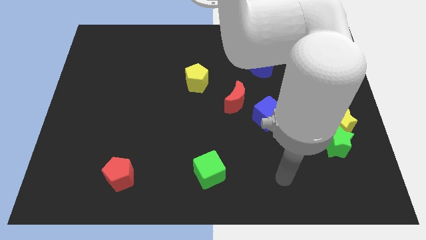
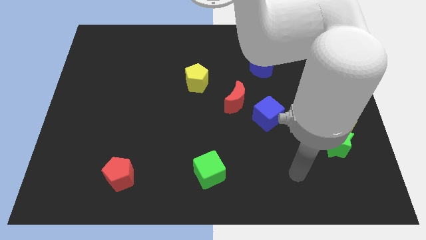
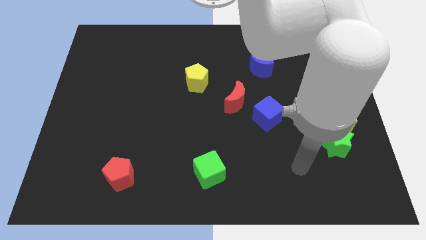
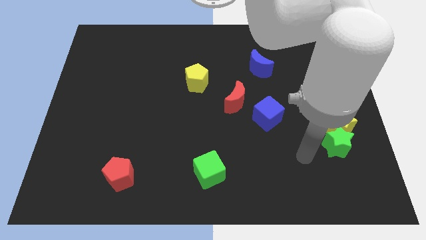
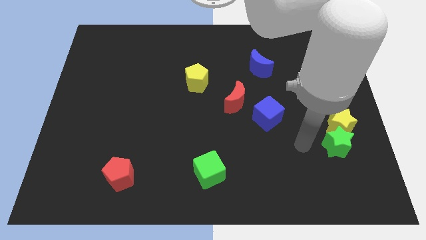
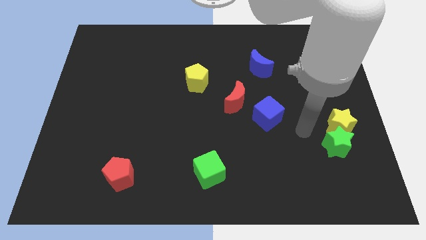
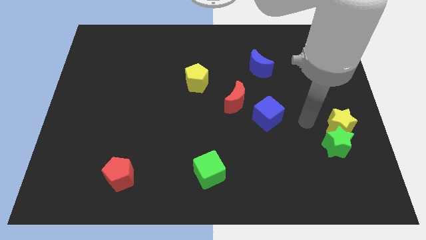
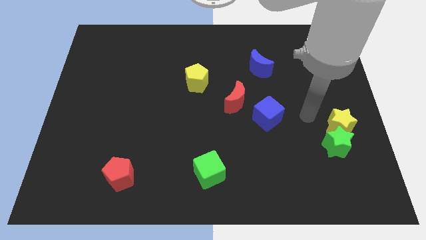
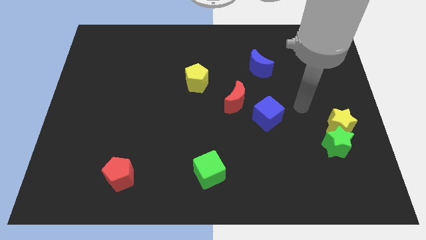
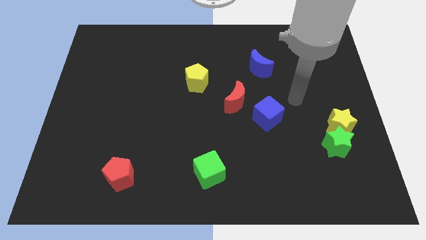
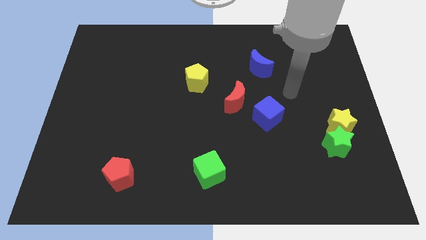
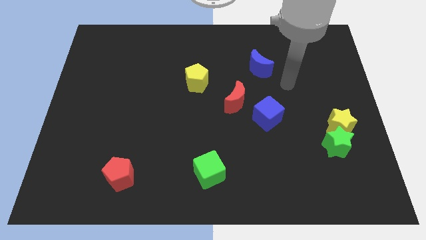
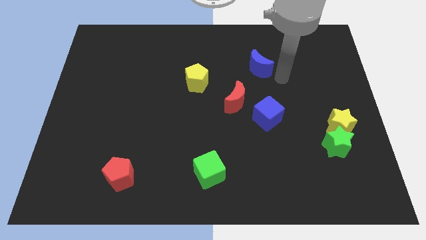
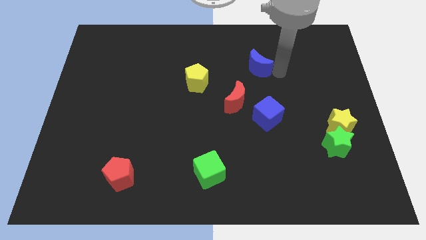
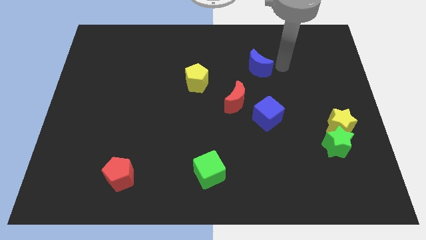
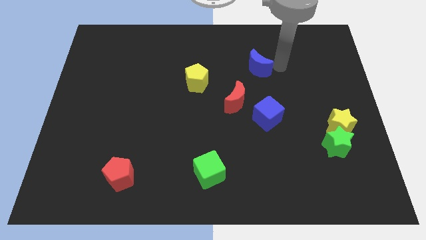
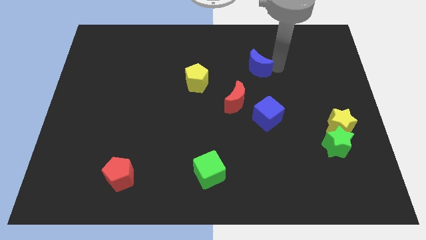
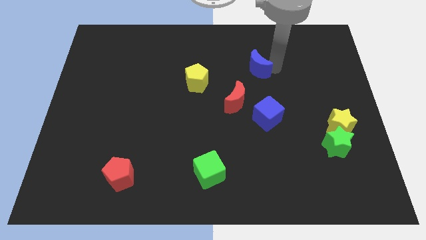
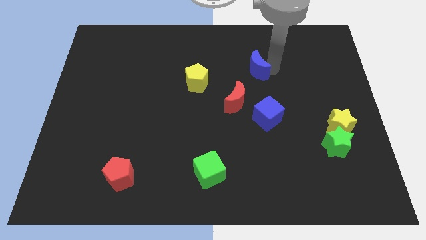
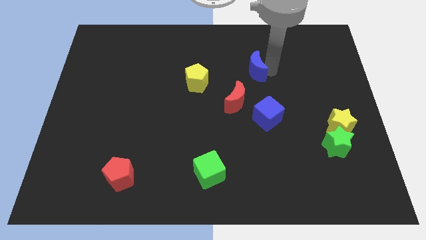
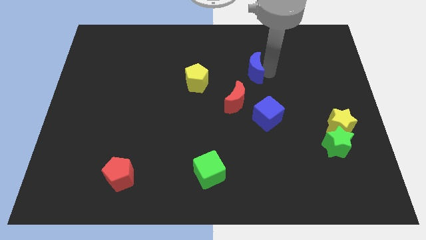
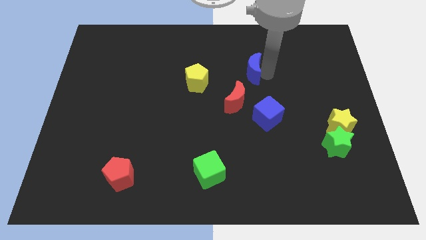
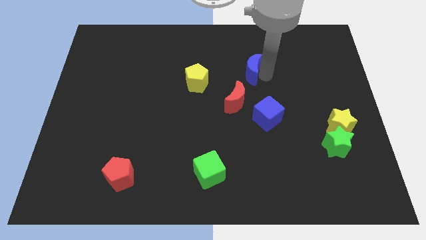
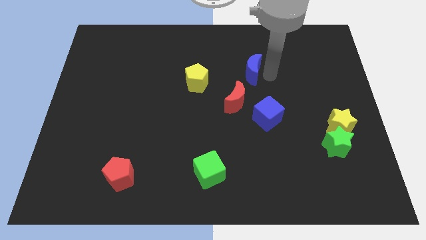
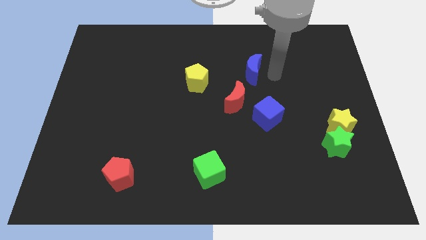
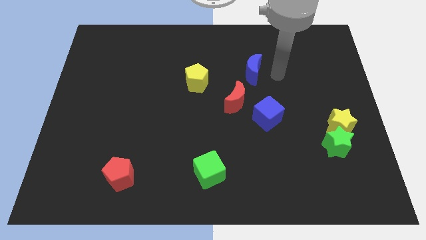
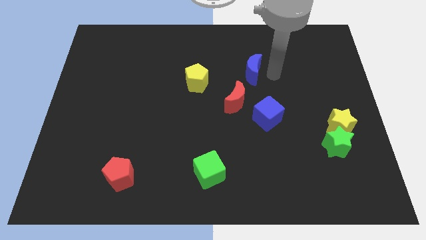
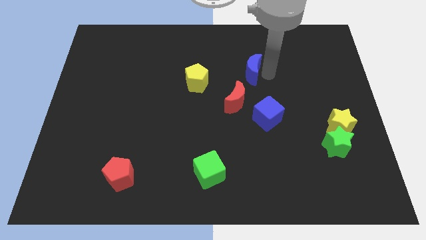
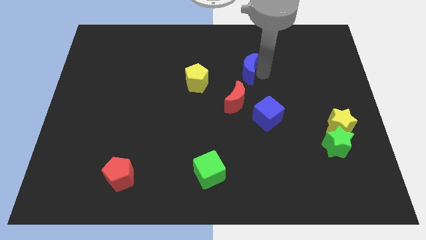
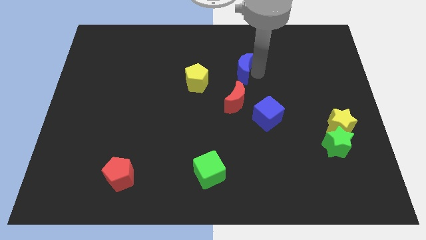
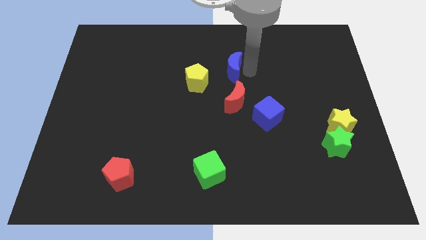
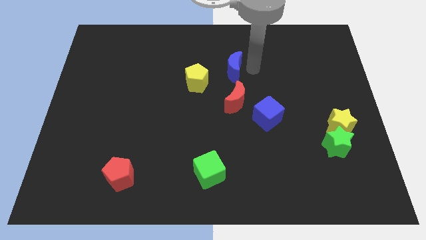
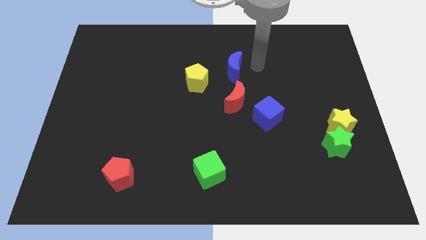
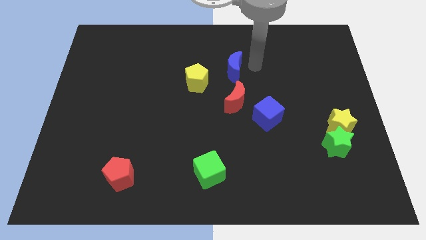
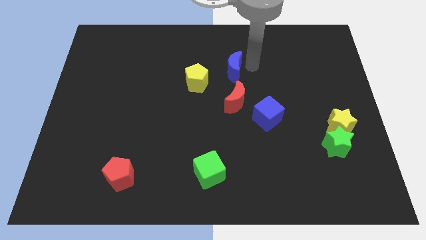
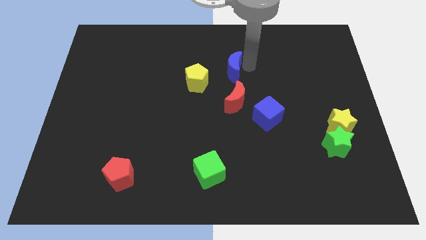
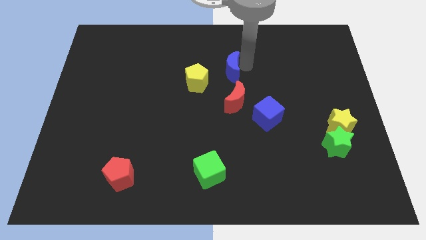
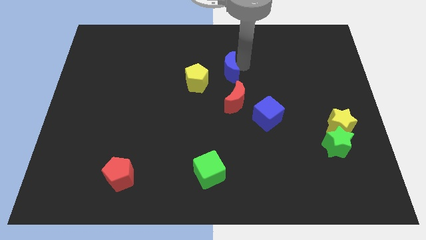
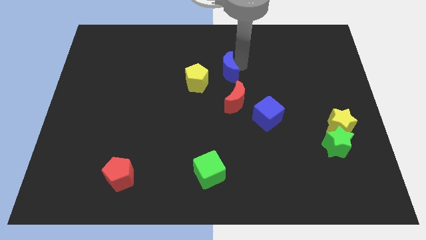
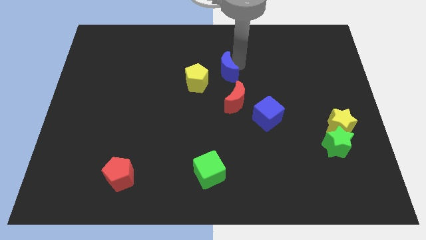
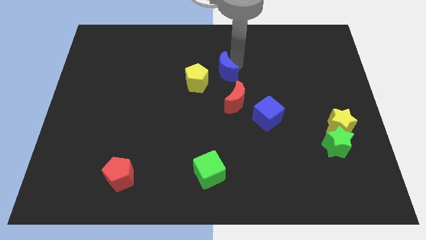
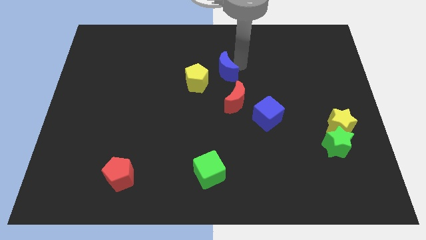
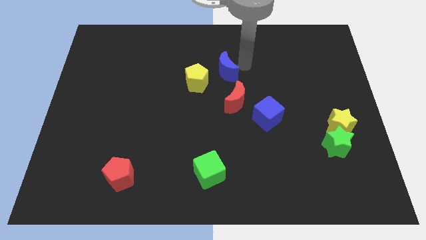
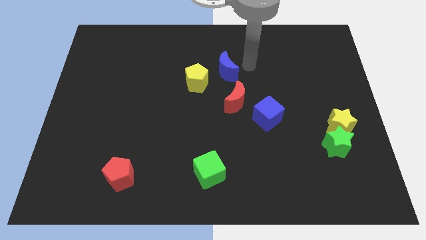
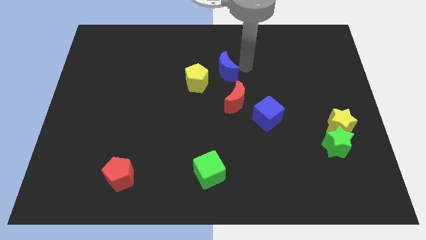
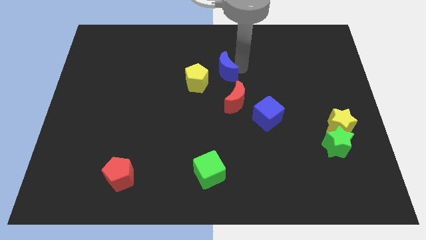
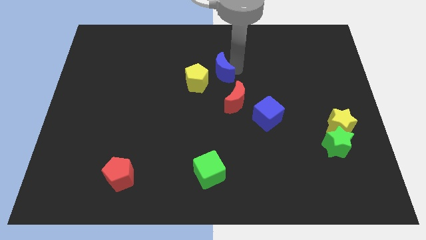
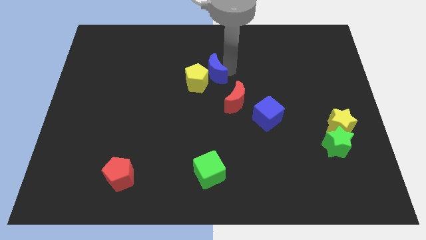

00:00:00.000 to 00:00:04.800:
push the blue moon close to the yellow pentagon

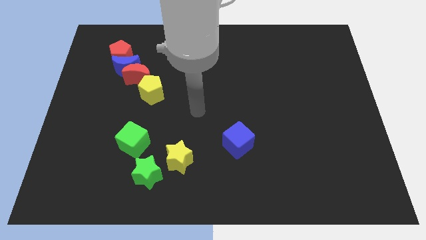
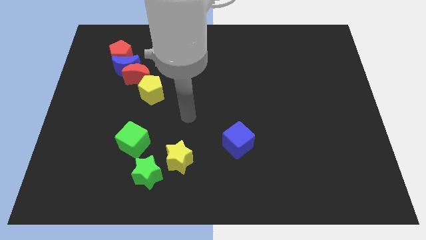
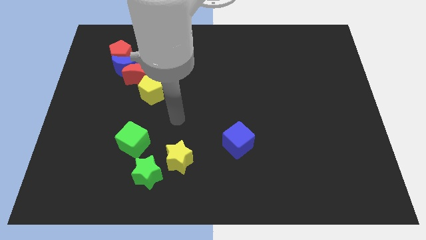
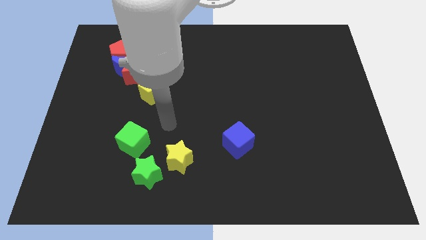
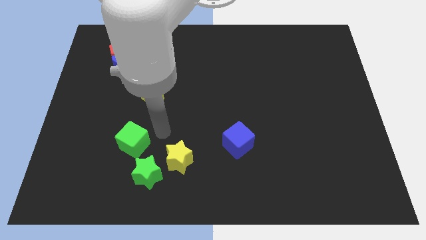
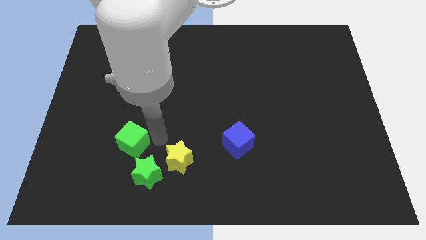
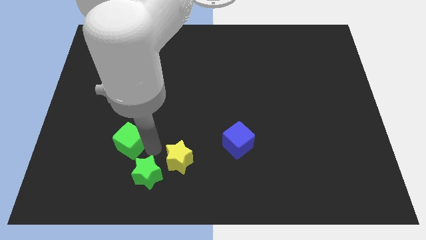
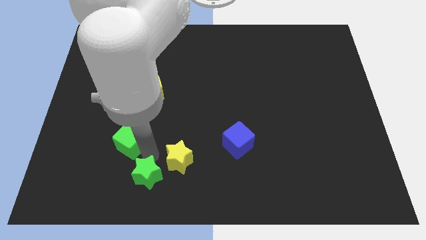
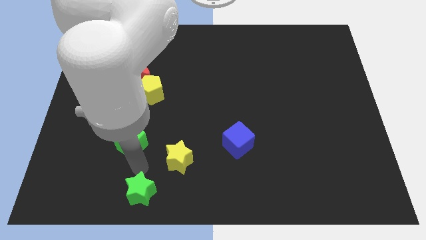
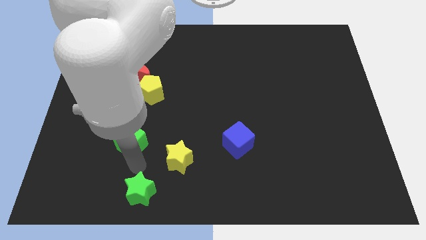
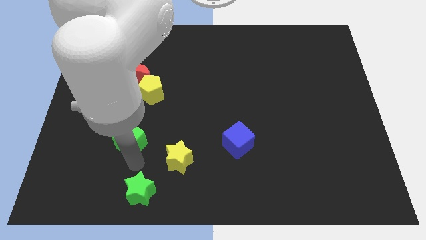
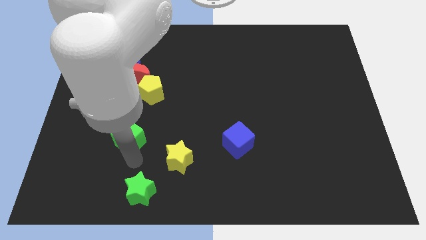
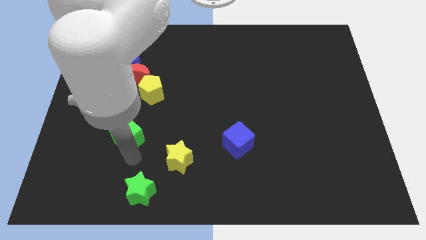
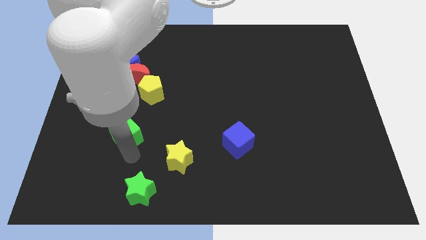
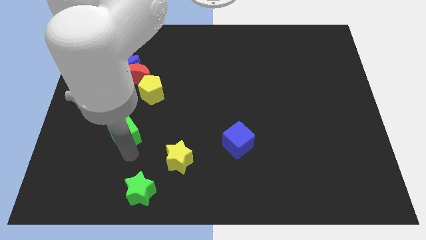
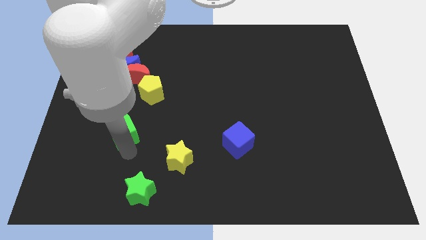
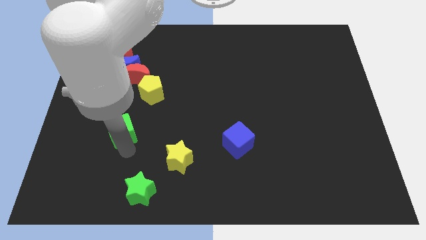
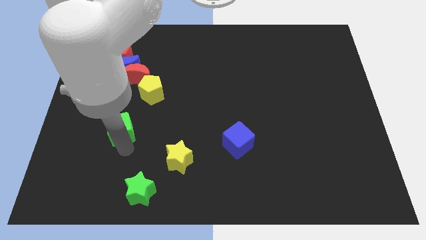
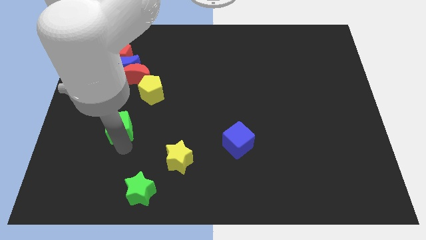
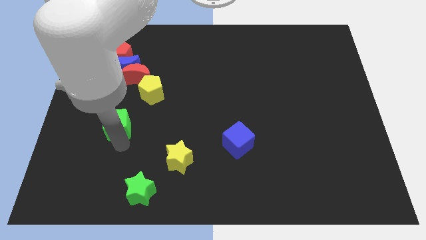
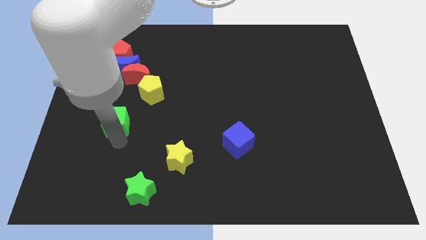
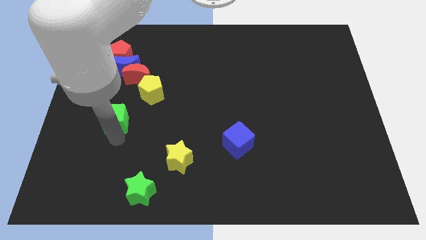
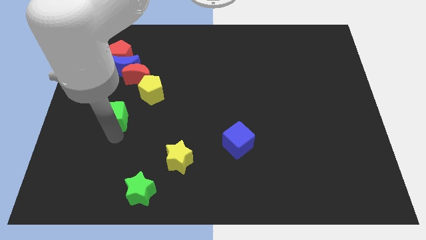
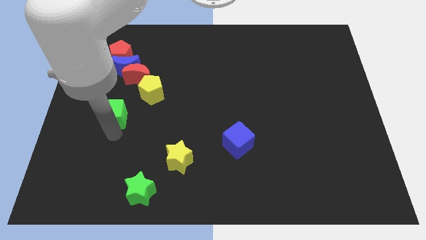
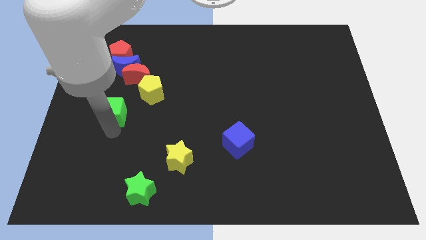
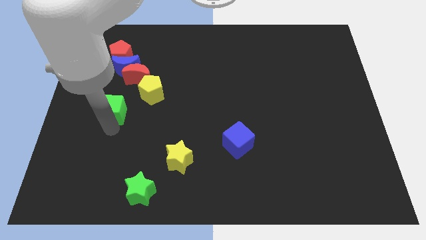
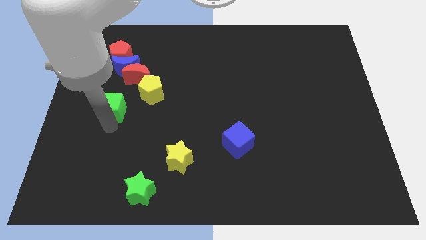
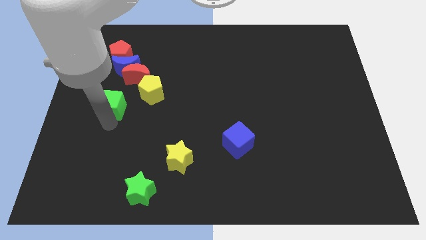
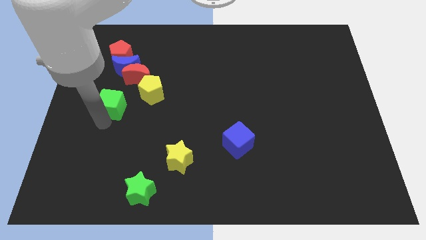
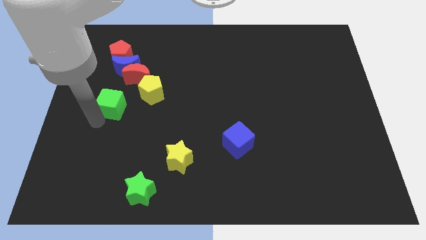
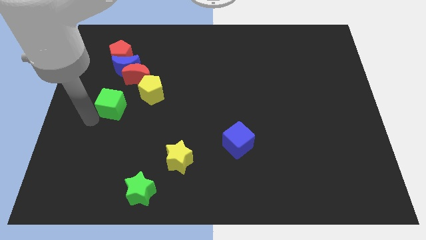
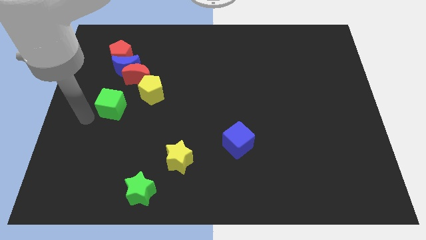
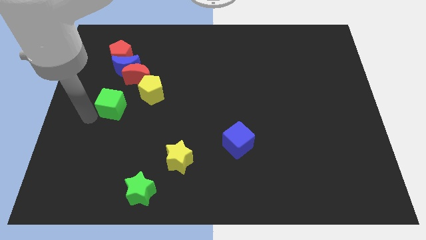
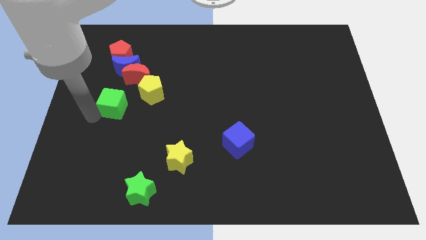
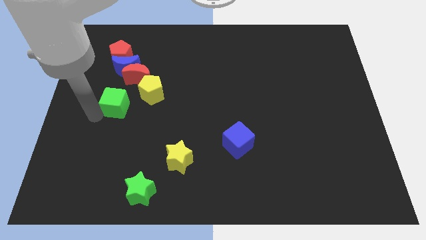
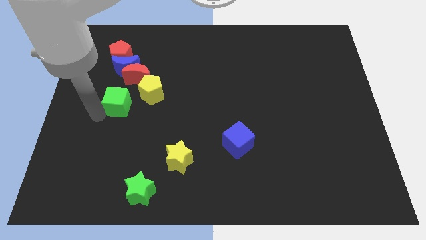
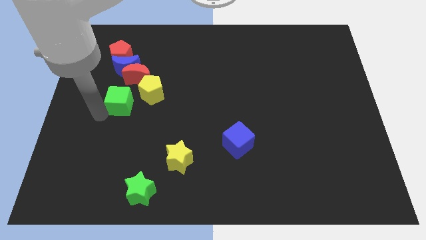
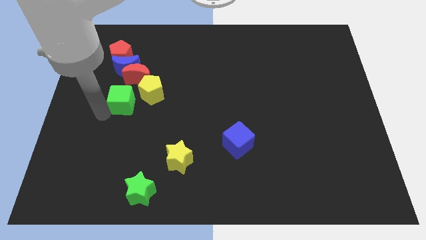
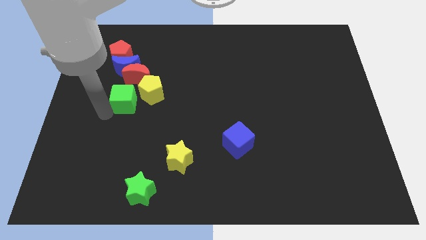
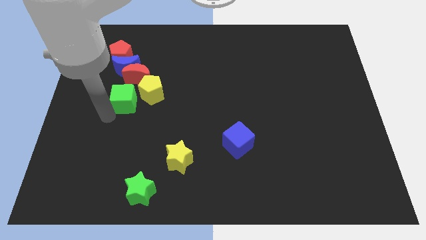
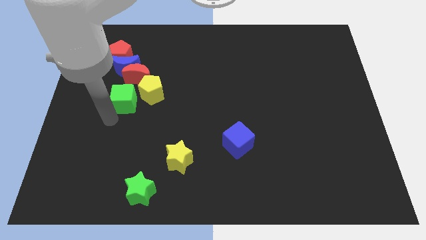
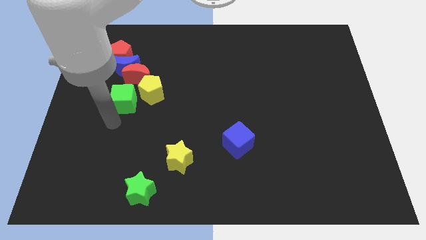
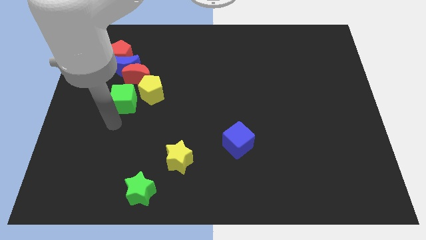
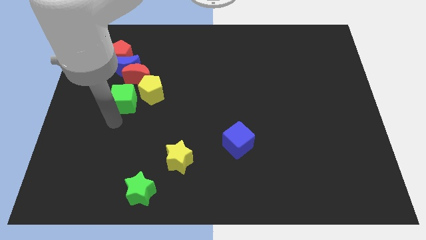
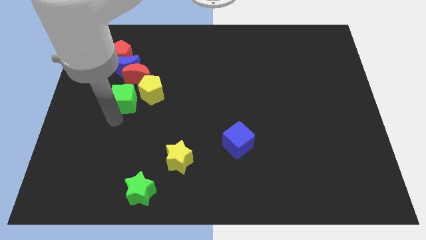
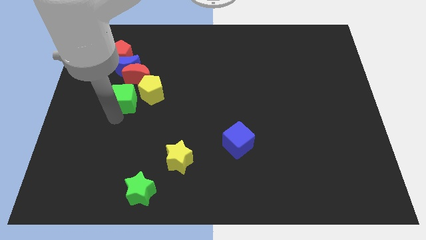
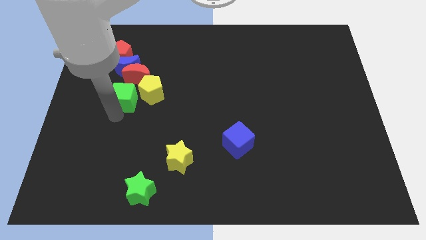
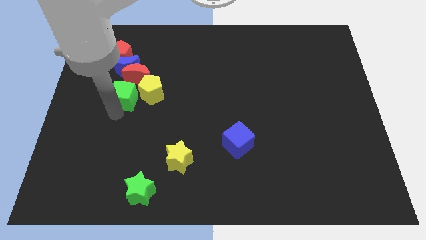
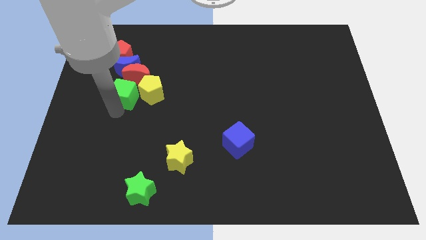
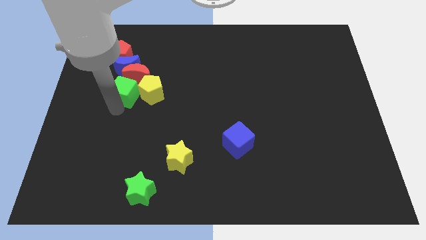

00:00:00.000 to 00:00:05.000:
push the green cube close to the red moon
